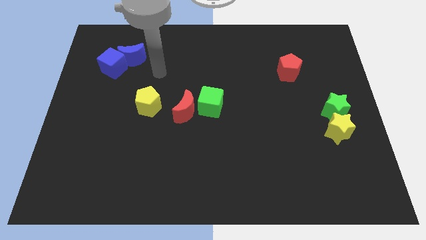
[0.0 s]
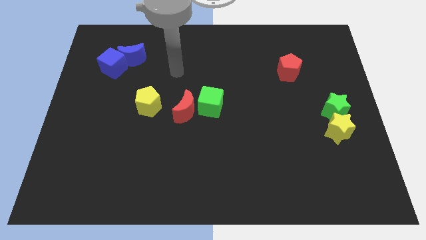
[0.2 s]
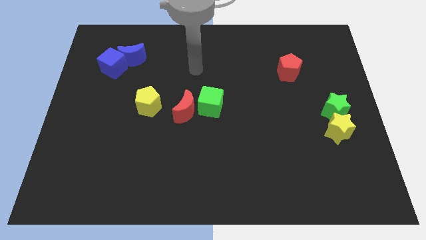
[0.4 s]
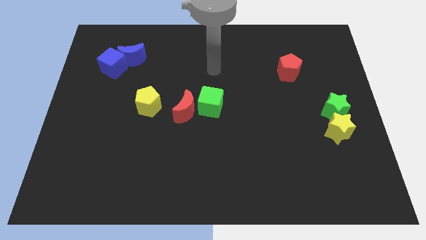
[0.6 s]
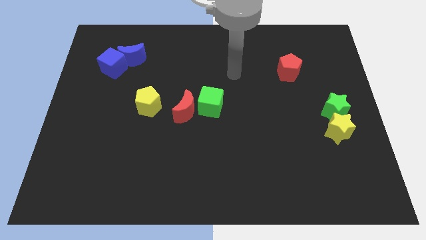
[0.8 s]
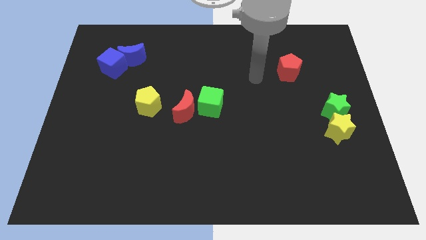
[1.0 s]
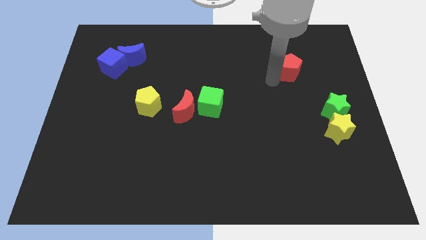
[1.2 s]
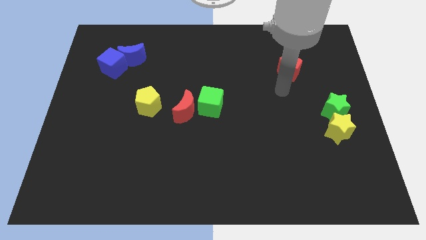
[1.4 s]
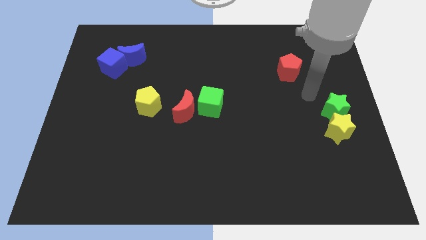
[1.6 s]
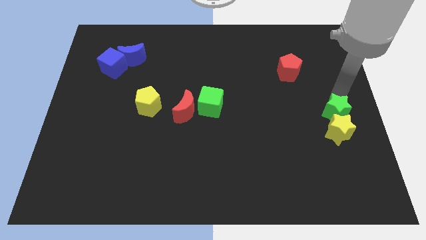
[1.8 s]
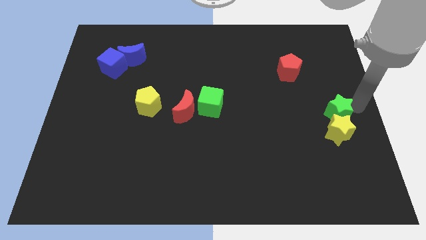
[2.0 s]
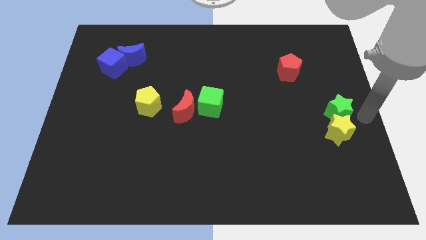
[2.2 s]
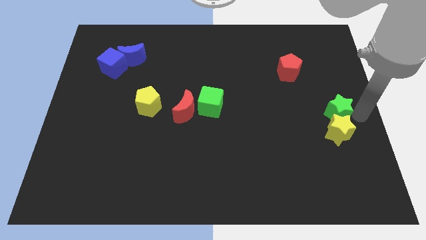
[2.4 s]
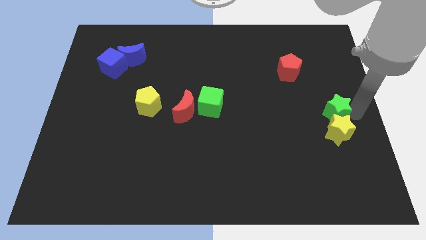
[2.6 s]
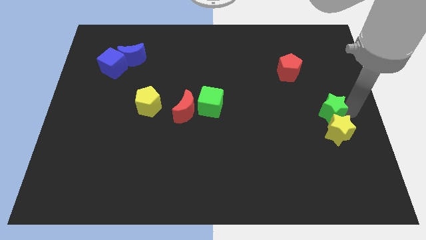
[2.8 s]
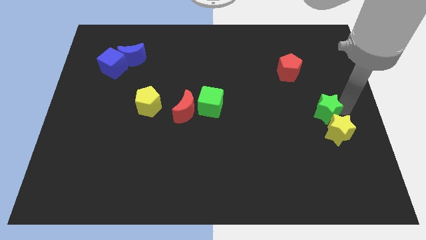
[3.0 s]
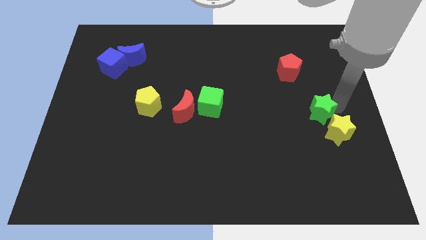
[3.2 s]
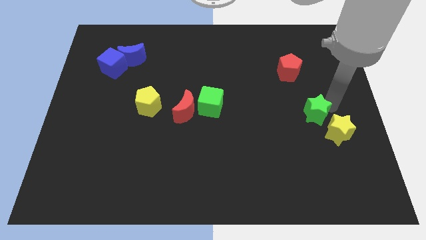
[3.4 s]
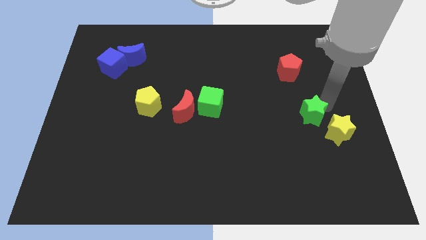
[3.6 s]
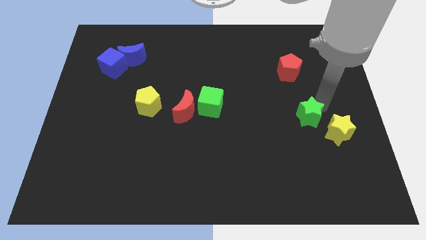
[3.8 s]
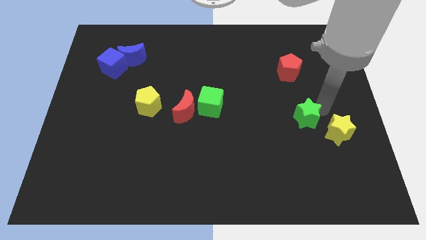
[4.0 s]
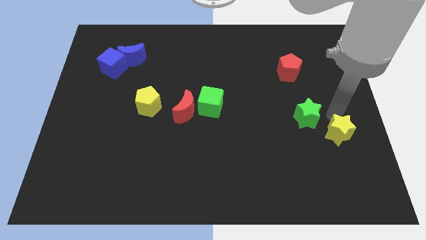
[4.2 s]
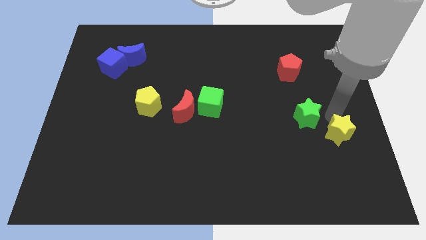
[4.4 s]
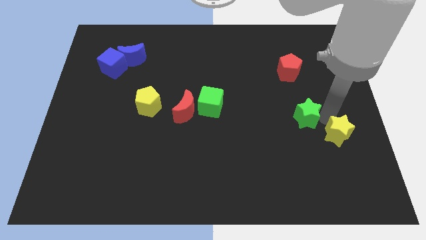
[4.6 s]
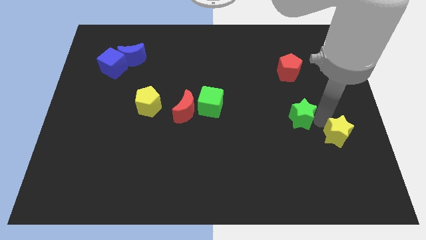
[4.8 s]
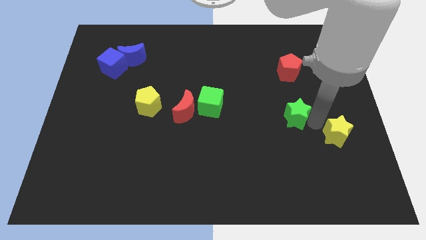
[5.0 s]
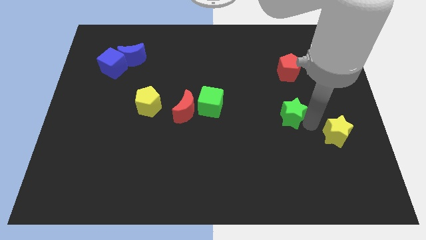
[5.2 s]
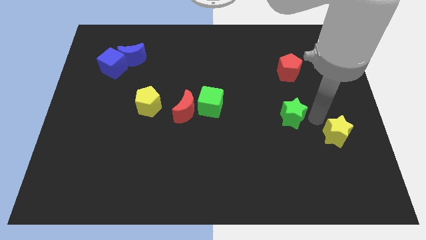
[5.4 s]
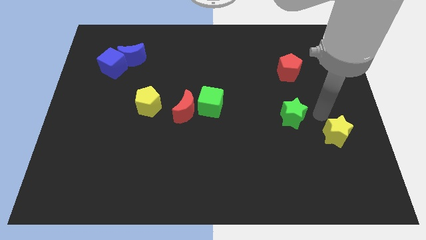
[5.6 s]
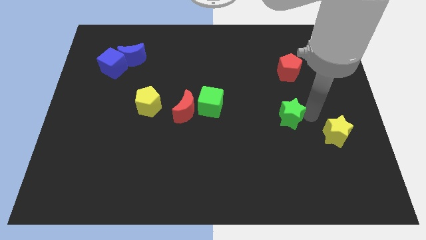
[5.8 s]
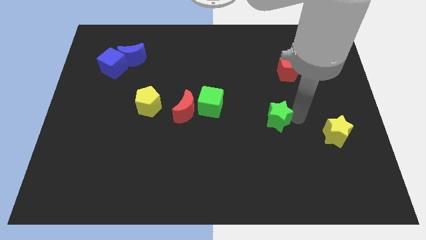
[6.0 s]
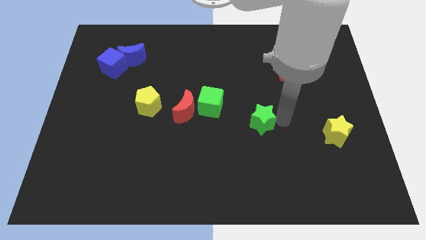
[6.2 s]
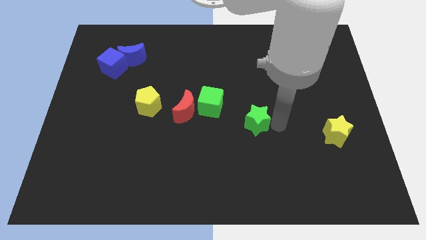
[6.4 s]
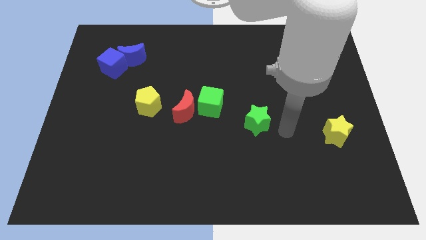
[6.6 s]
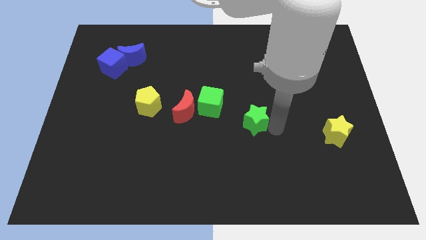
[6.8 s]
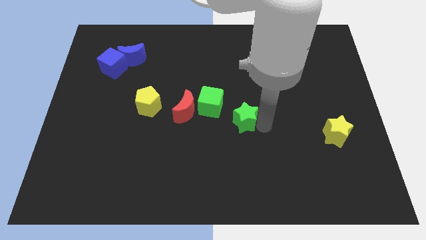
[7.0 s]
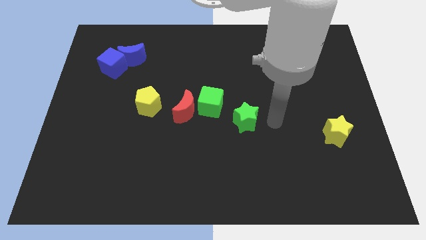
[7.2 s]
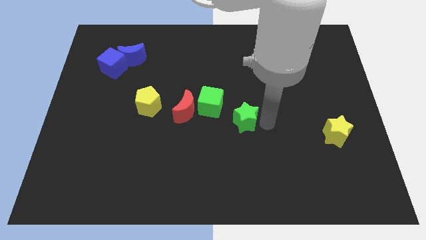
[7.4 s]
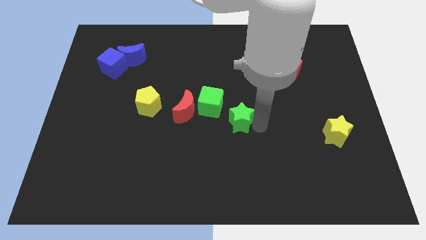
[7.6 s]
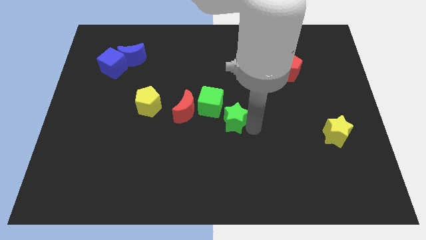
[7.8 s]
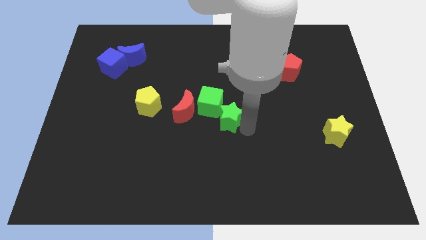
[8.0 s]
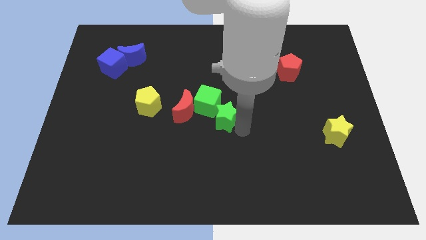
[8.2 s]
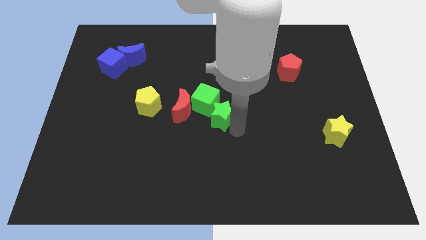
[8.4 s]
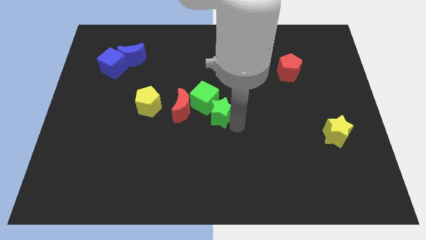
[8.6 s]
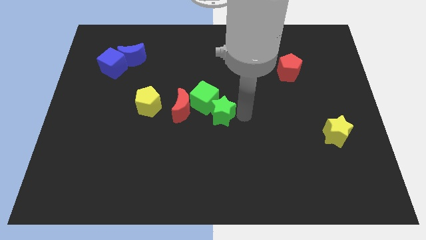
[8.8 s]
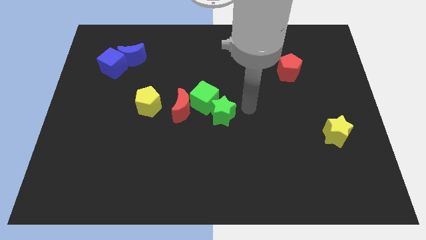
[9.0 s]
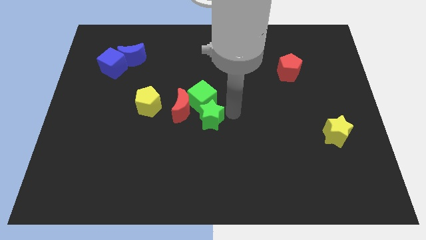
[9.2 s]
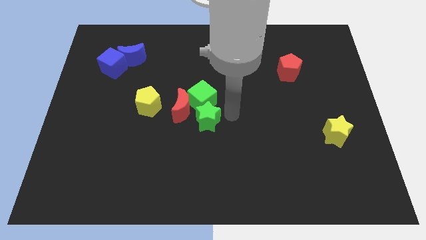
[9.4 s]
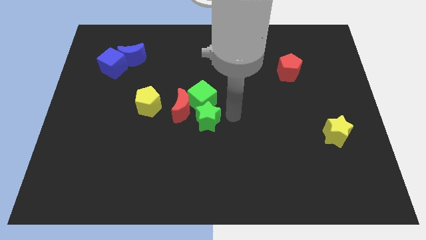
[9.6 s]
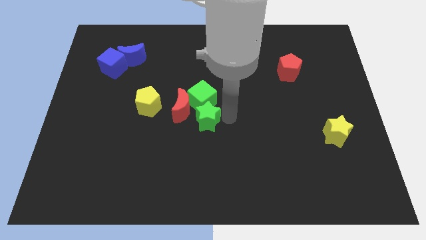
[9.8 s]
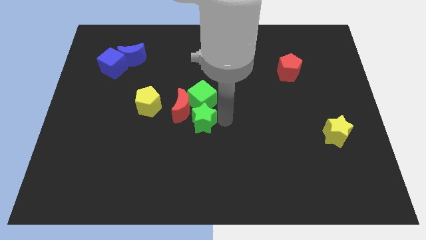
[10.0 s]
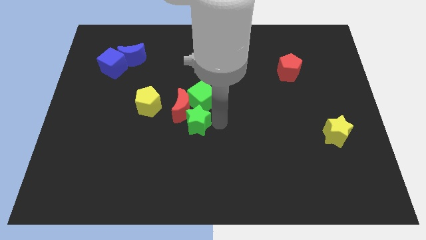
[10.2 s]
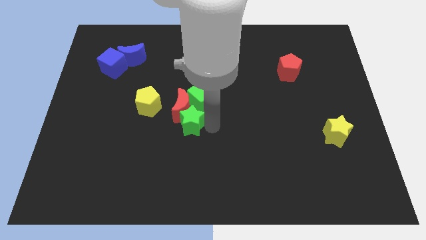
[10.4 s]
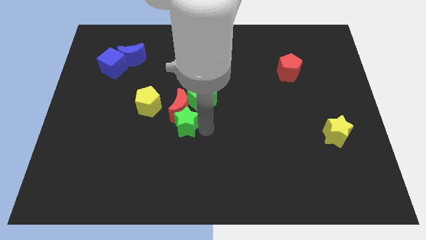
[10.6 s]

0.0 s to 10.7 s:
move the green star to the bottom left of the red moon

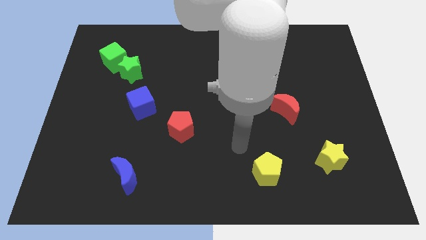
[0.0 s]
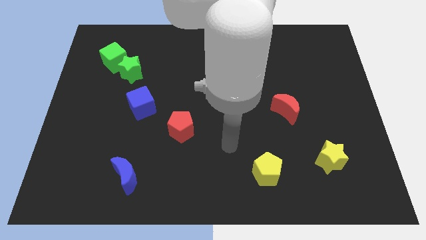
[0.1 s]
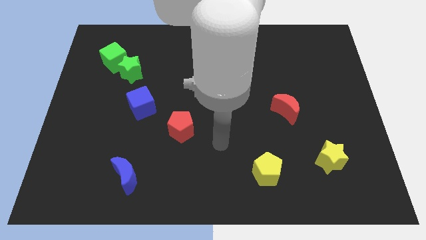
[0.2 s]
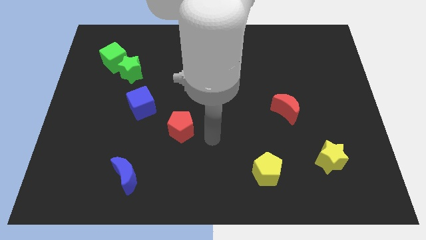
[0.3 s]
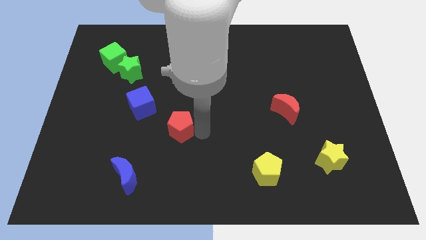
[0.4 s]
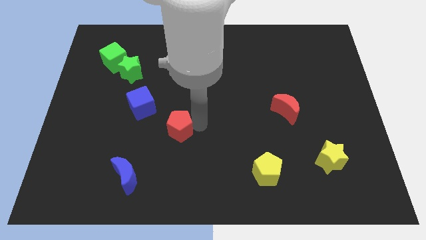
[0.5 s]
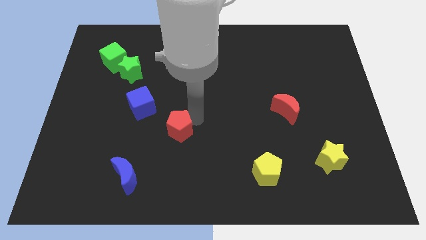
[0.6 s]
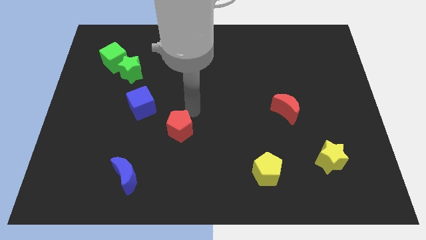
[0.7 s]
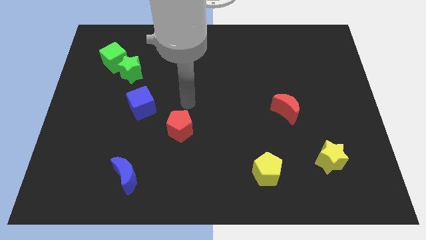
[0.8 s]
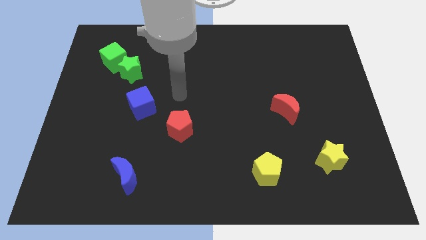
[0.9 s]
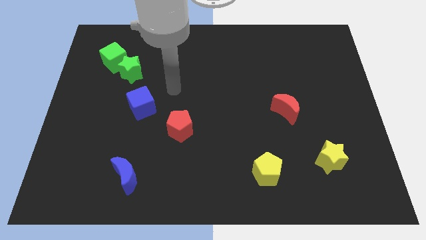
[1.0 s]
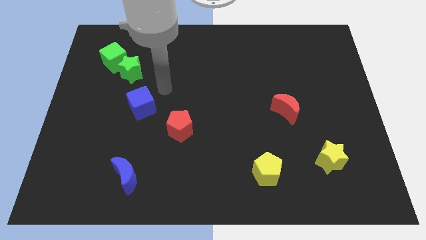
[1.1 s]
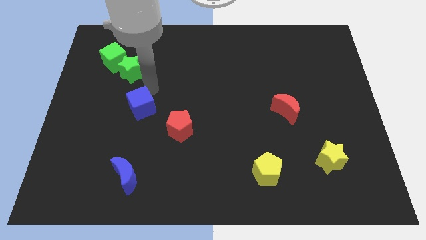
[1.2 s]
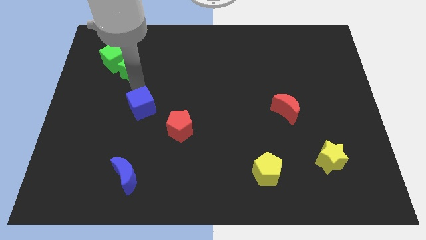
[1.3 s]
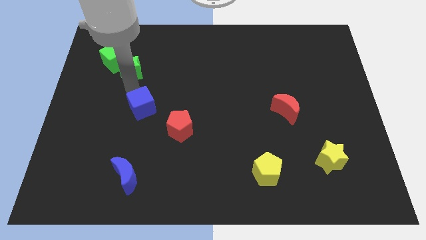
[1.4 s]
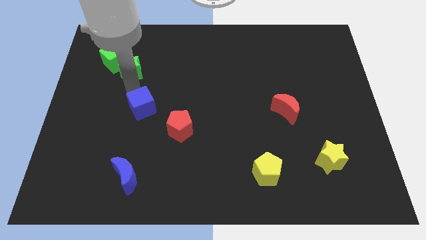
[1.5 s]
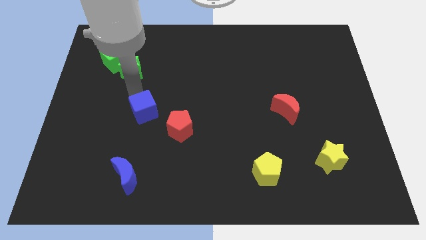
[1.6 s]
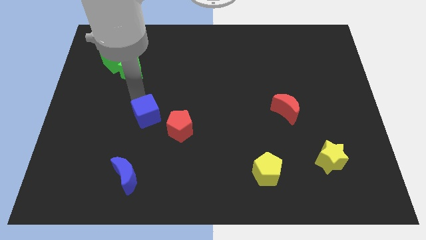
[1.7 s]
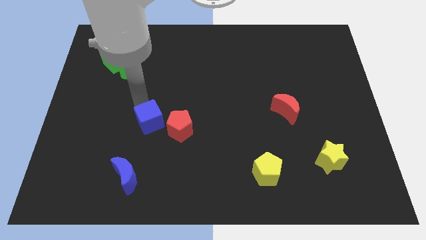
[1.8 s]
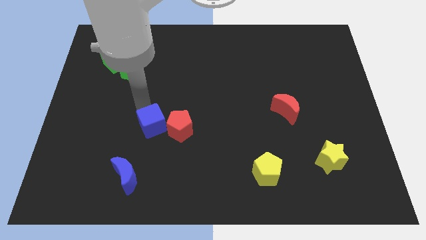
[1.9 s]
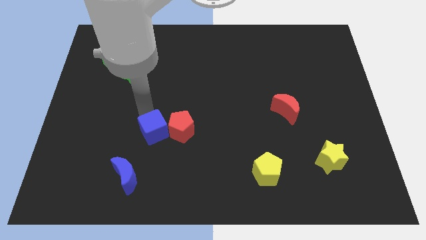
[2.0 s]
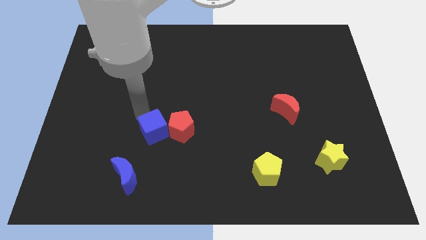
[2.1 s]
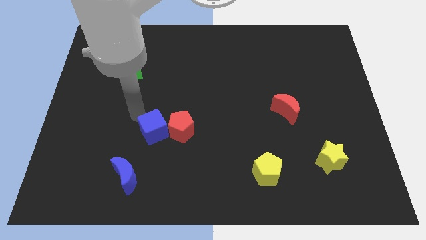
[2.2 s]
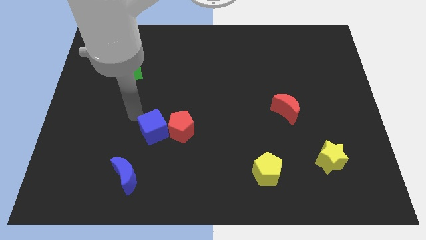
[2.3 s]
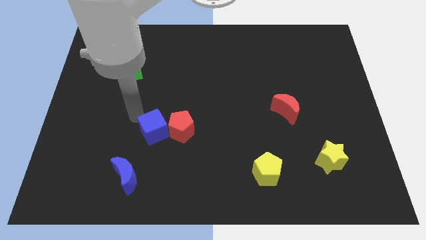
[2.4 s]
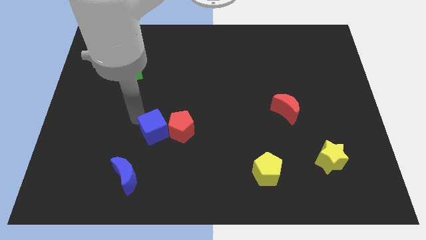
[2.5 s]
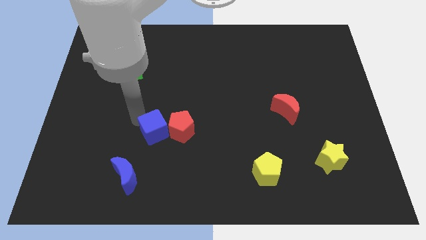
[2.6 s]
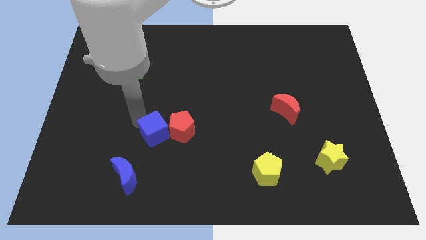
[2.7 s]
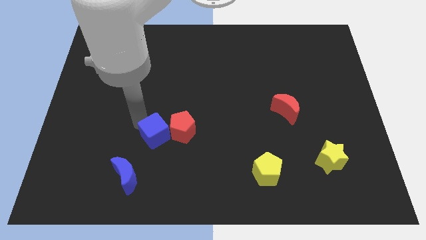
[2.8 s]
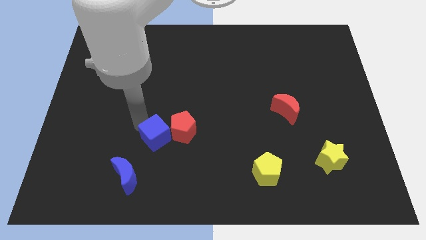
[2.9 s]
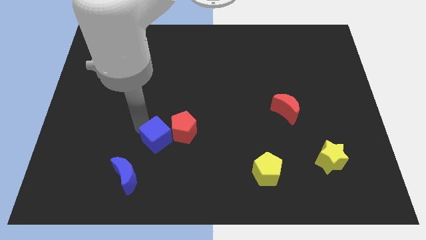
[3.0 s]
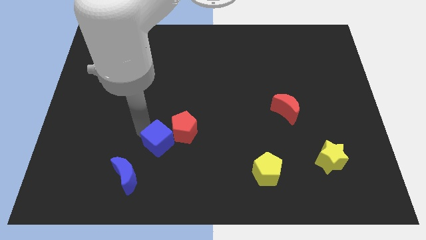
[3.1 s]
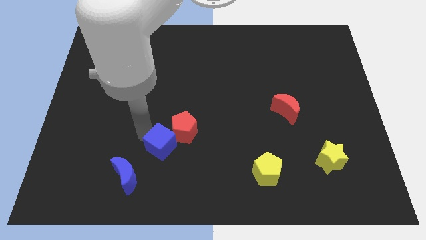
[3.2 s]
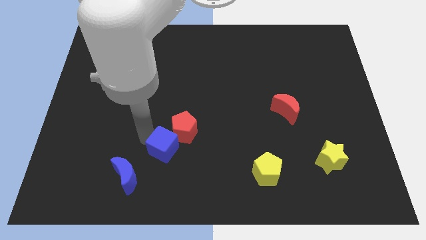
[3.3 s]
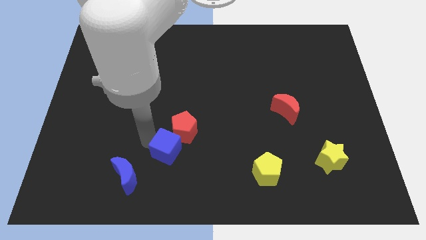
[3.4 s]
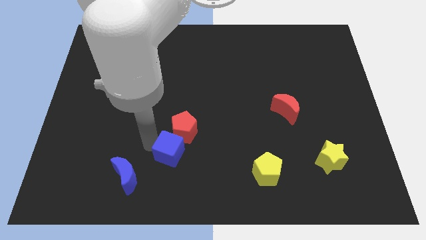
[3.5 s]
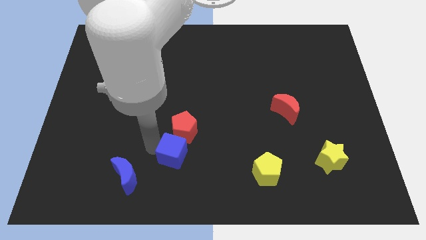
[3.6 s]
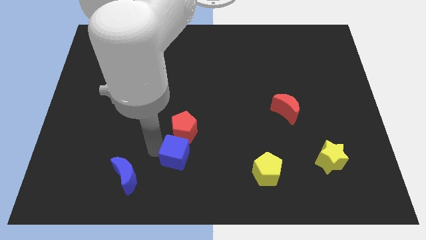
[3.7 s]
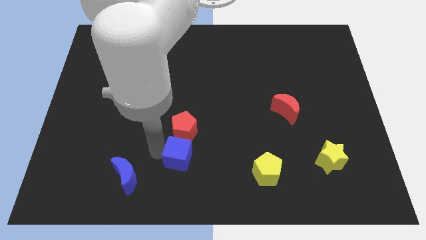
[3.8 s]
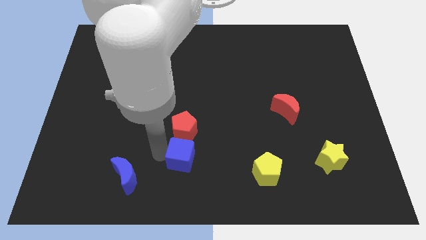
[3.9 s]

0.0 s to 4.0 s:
move the blue cube to the bottom right of the red pentagon
